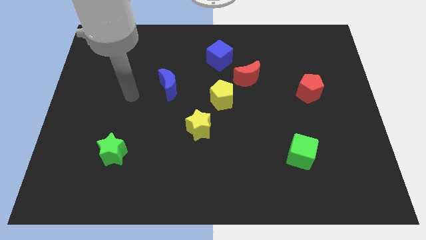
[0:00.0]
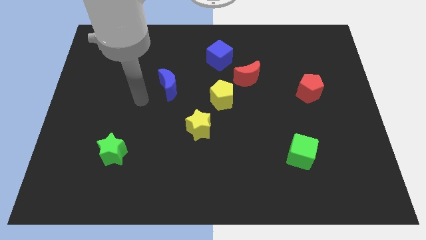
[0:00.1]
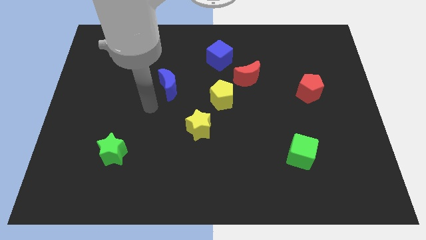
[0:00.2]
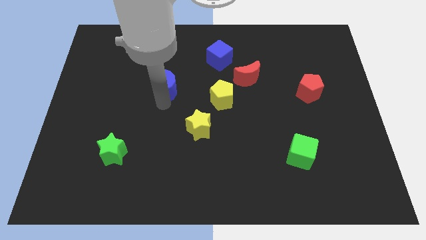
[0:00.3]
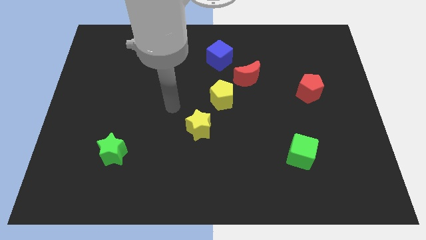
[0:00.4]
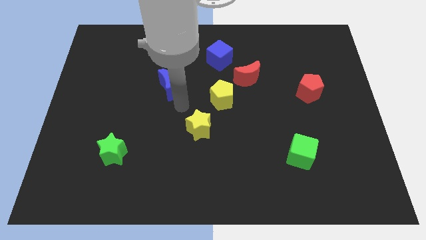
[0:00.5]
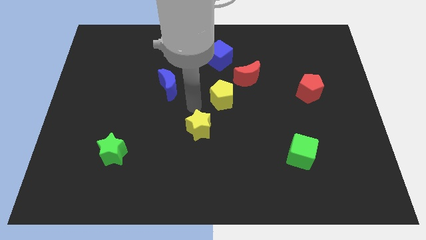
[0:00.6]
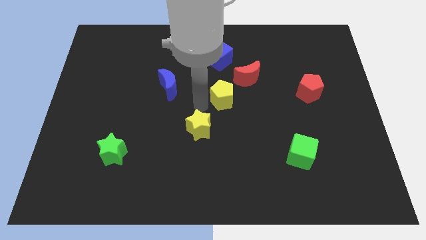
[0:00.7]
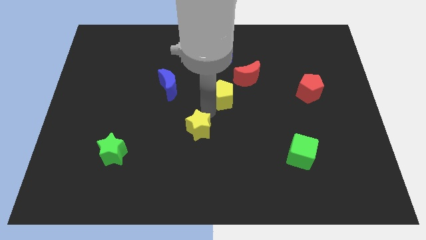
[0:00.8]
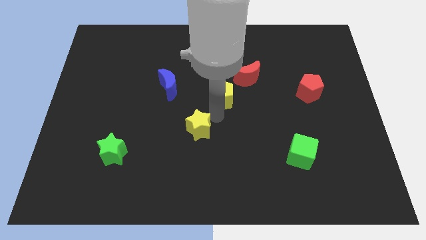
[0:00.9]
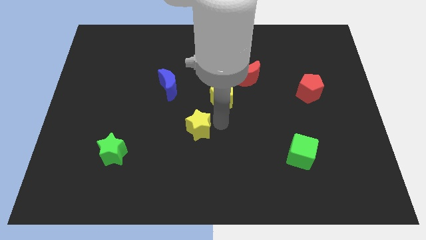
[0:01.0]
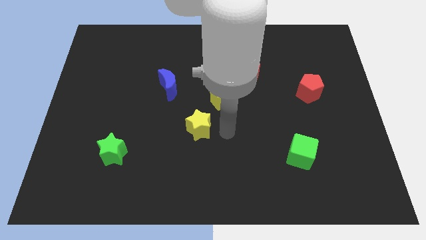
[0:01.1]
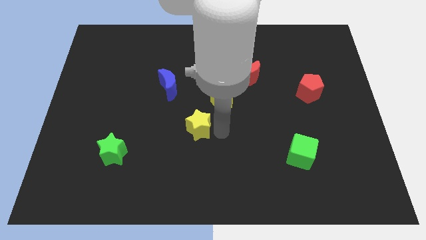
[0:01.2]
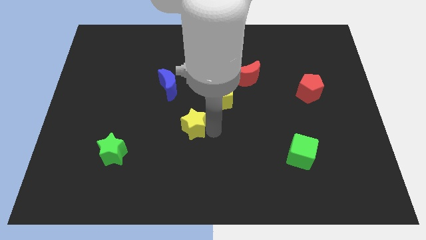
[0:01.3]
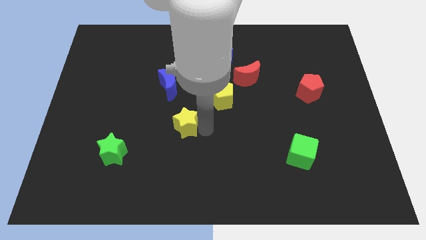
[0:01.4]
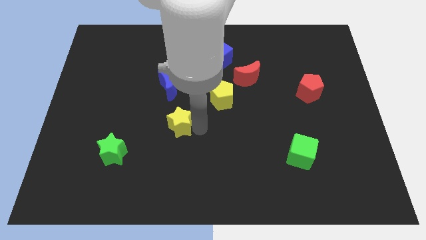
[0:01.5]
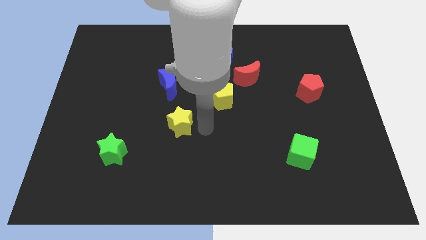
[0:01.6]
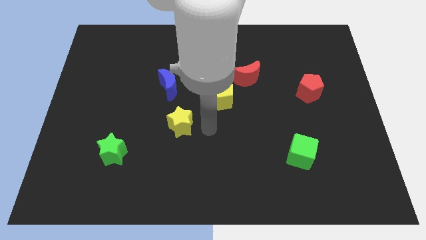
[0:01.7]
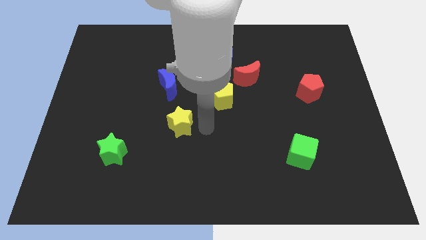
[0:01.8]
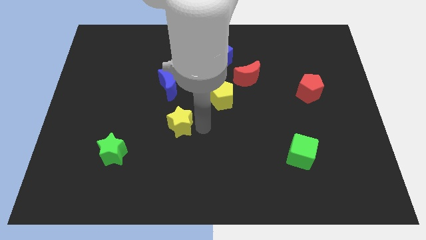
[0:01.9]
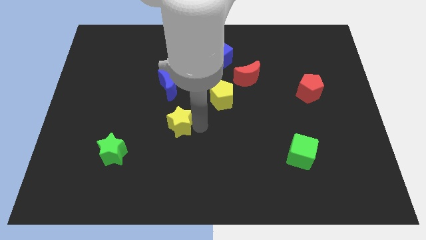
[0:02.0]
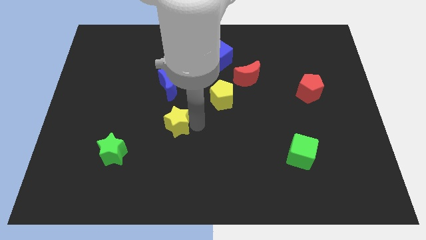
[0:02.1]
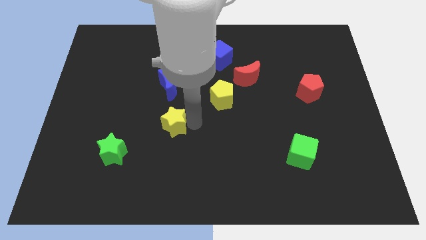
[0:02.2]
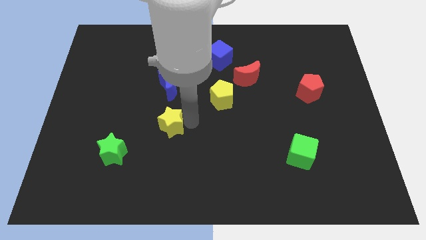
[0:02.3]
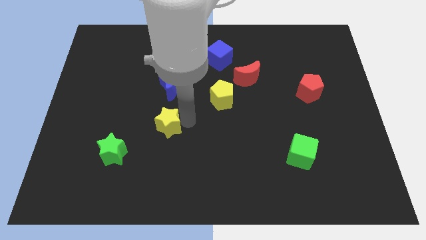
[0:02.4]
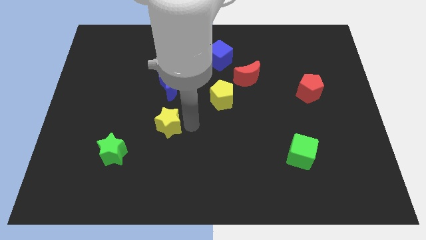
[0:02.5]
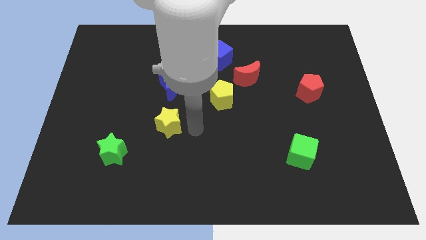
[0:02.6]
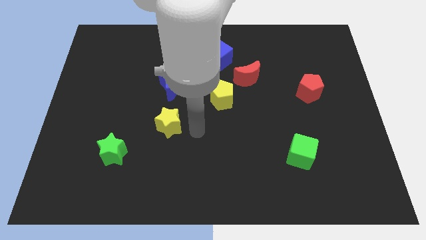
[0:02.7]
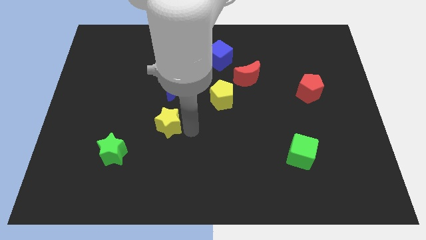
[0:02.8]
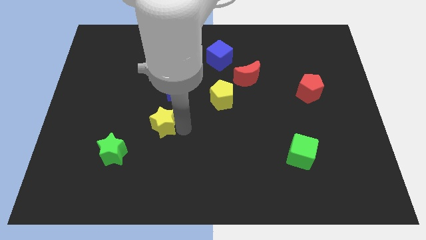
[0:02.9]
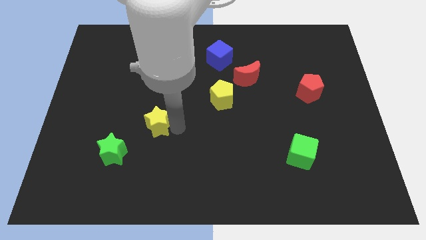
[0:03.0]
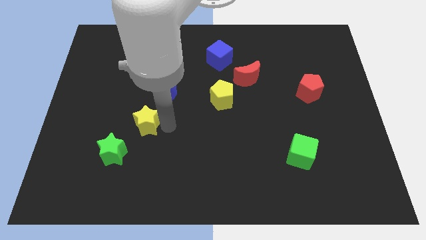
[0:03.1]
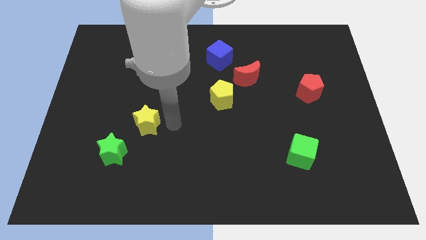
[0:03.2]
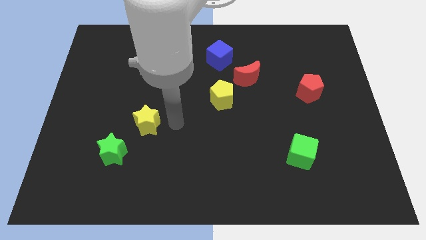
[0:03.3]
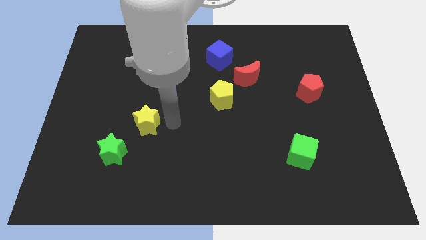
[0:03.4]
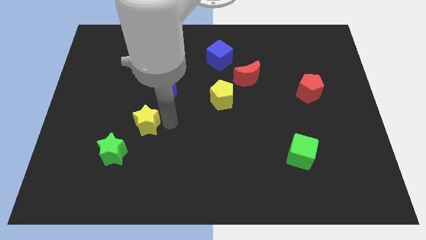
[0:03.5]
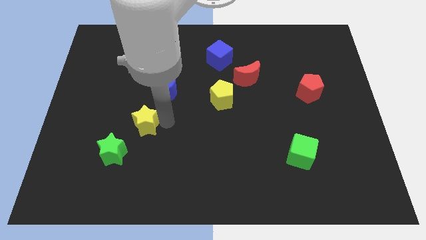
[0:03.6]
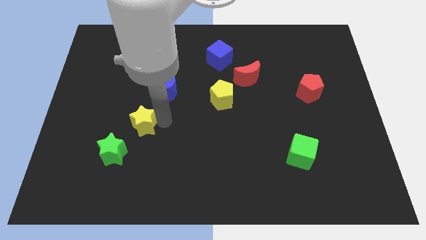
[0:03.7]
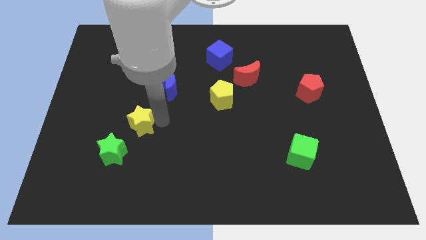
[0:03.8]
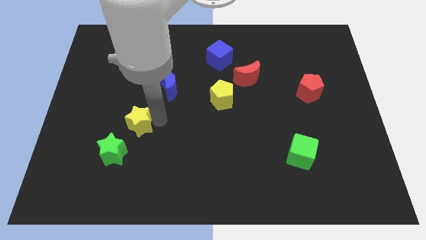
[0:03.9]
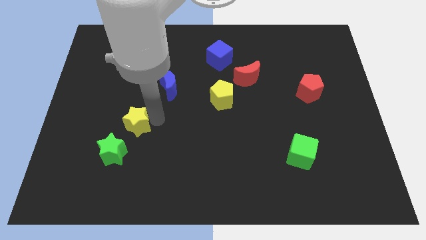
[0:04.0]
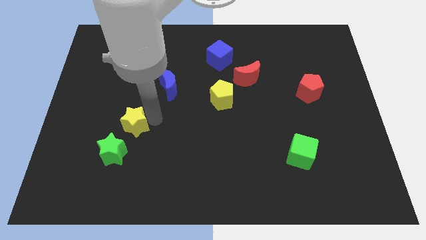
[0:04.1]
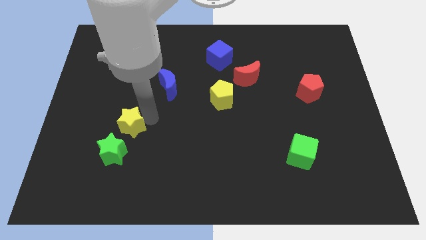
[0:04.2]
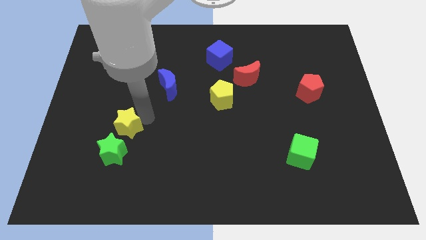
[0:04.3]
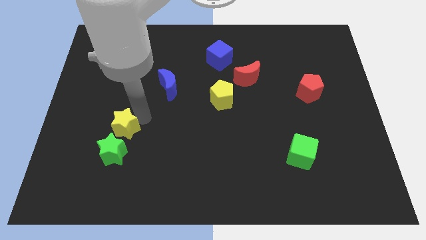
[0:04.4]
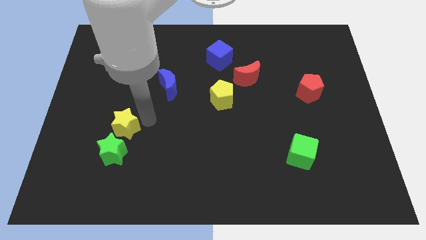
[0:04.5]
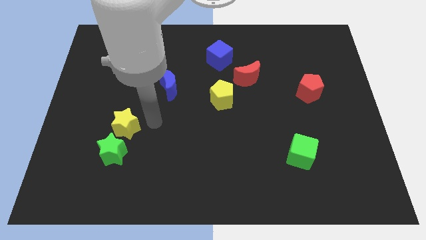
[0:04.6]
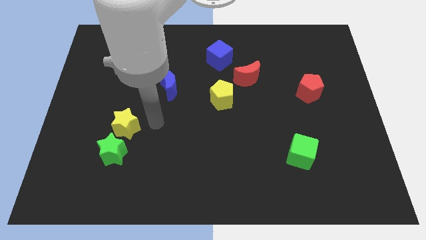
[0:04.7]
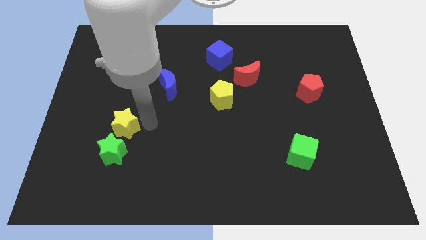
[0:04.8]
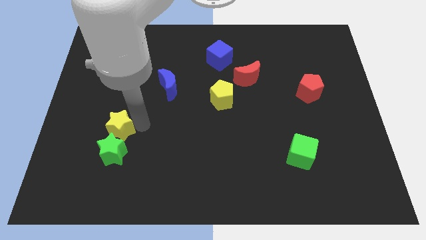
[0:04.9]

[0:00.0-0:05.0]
move the yellow star to the top left of the green star

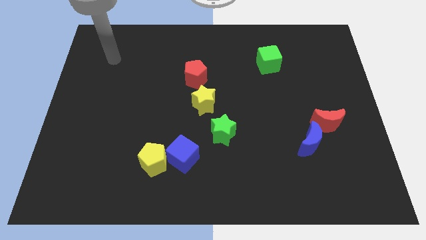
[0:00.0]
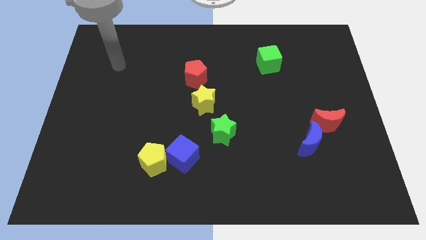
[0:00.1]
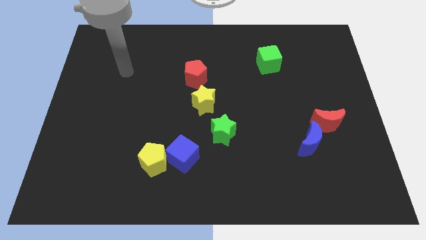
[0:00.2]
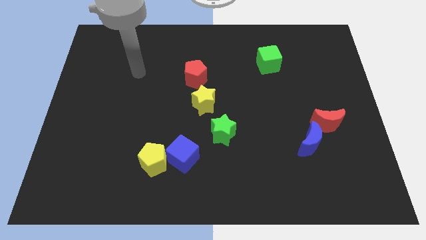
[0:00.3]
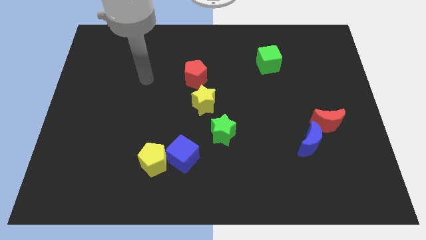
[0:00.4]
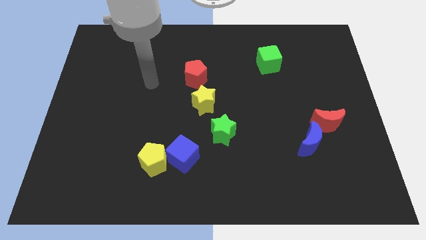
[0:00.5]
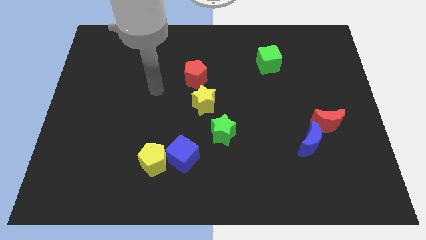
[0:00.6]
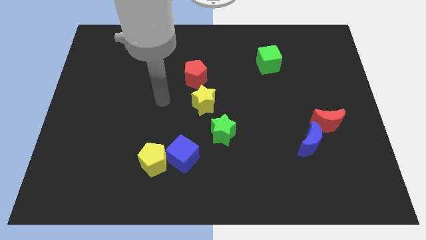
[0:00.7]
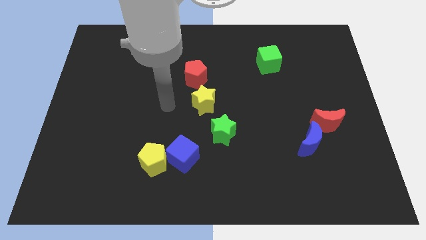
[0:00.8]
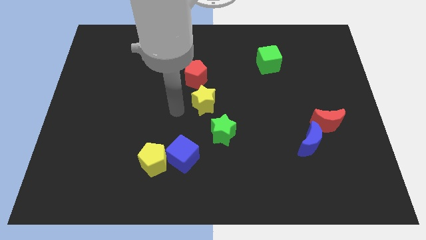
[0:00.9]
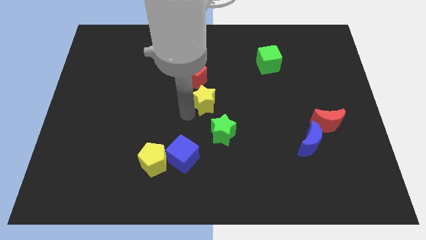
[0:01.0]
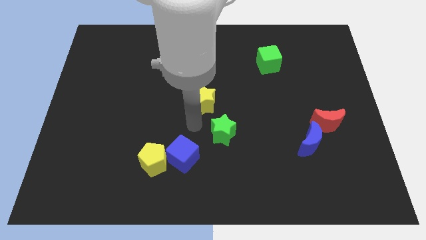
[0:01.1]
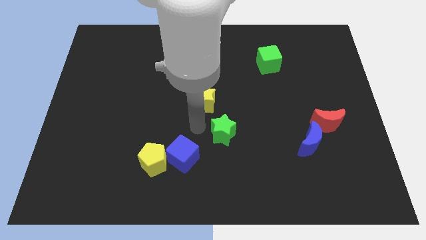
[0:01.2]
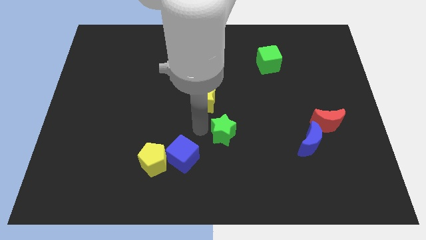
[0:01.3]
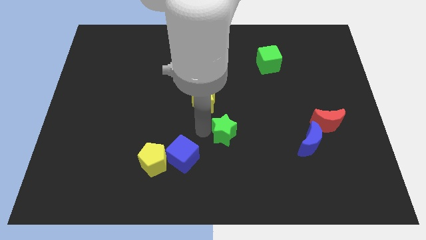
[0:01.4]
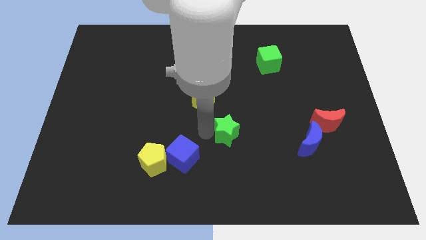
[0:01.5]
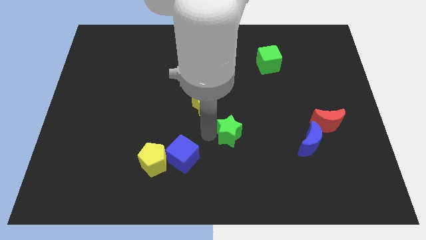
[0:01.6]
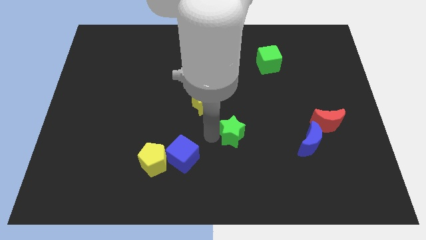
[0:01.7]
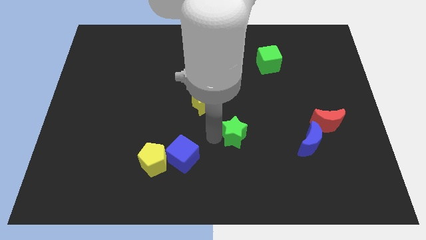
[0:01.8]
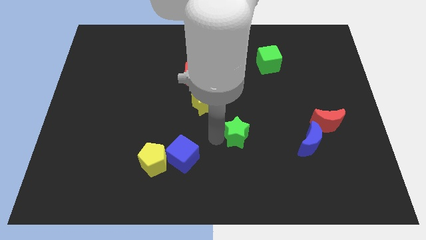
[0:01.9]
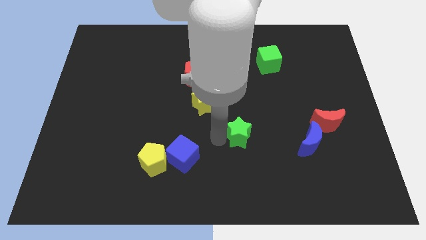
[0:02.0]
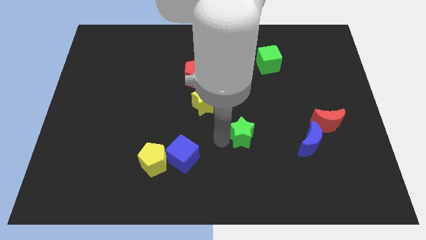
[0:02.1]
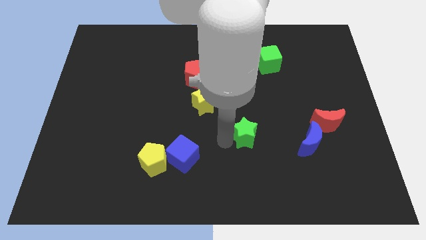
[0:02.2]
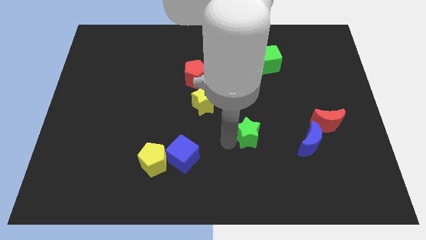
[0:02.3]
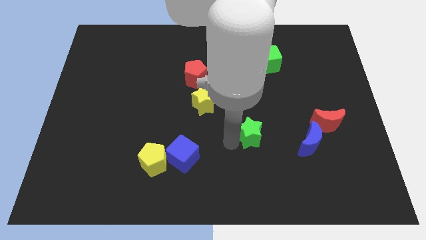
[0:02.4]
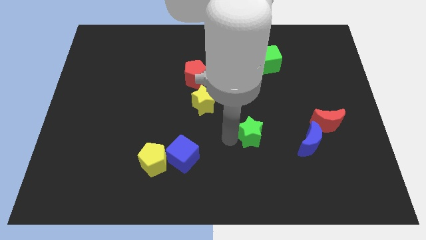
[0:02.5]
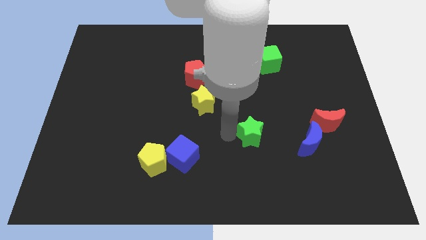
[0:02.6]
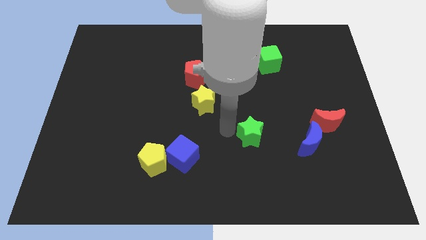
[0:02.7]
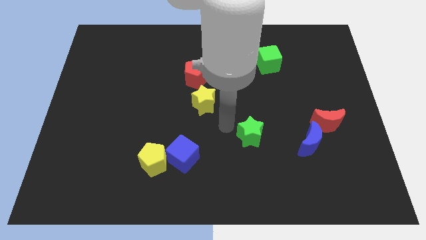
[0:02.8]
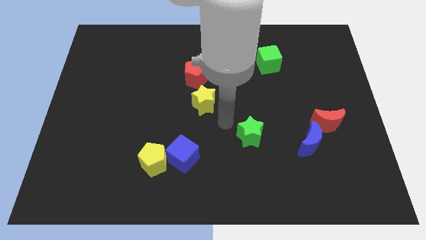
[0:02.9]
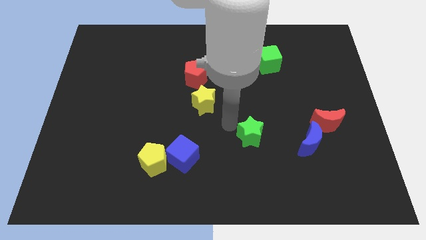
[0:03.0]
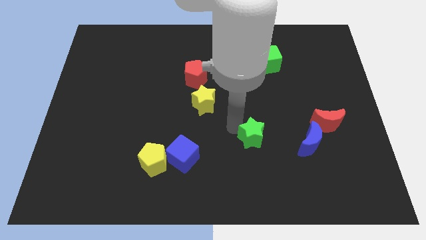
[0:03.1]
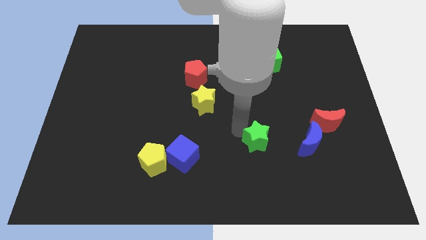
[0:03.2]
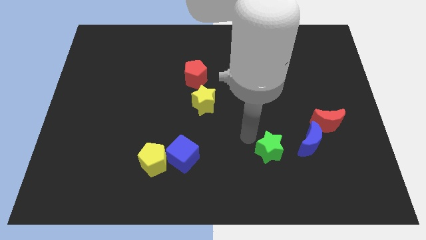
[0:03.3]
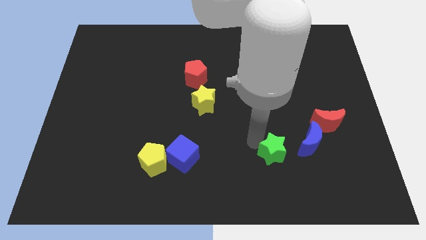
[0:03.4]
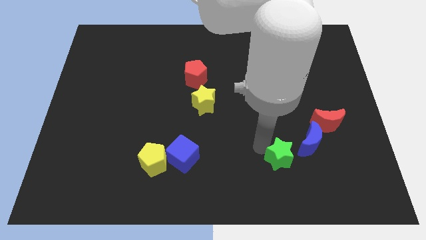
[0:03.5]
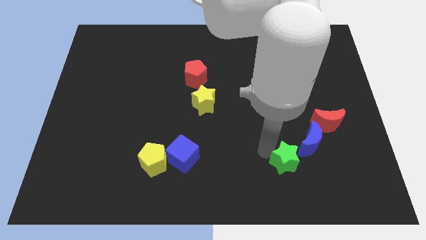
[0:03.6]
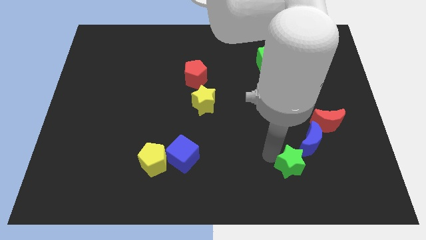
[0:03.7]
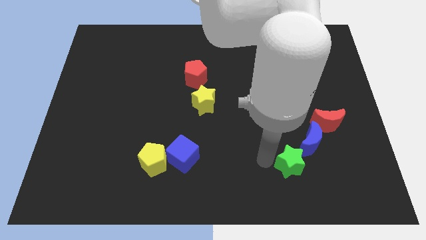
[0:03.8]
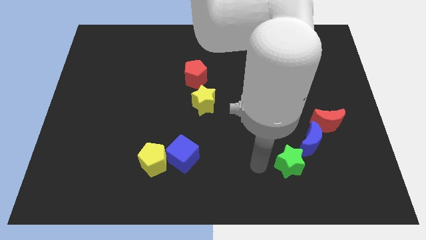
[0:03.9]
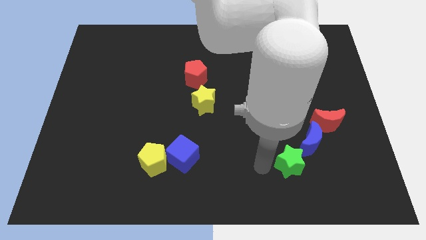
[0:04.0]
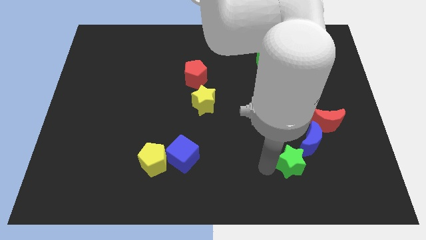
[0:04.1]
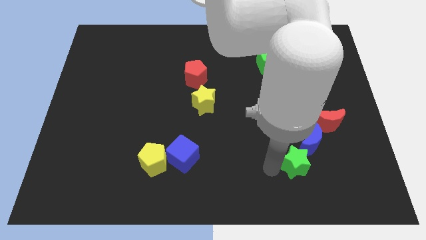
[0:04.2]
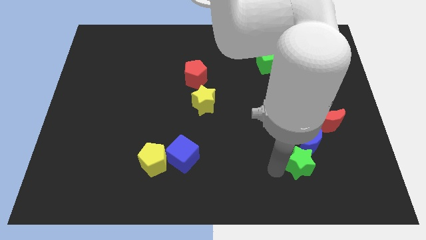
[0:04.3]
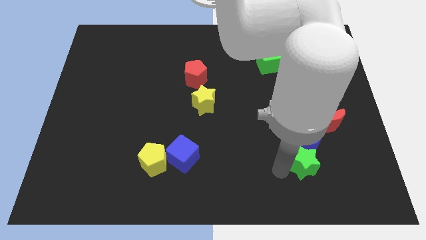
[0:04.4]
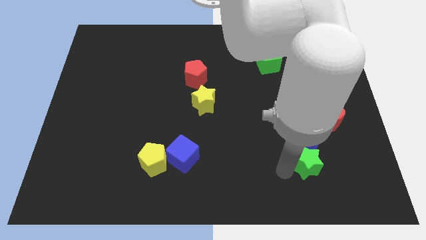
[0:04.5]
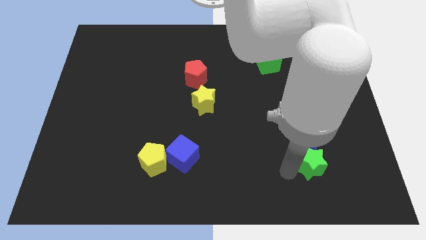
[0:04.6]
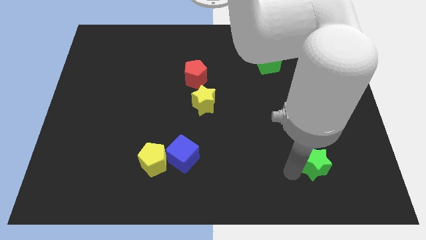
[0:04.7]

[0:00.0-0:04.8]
slide the green star to the bottom side of the red moon
